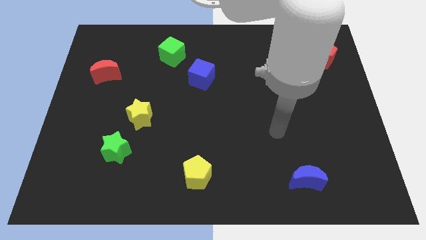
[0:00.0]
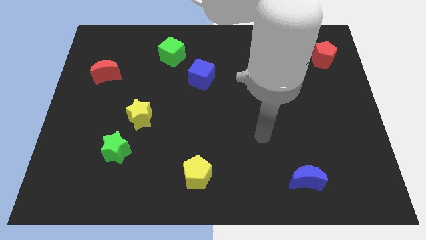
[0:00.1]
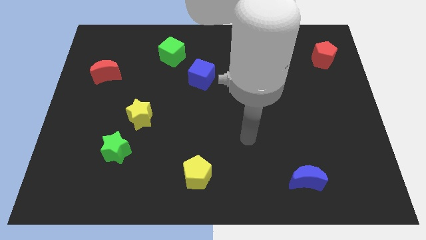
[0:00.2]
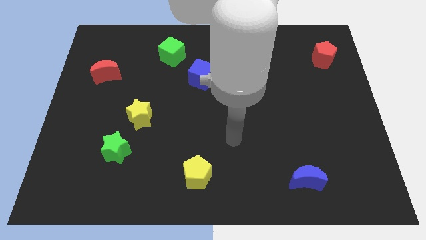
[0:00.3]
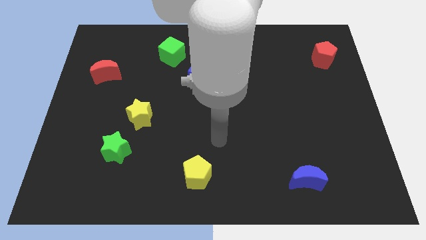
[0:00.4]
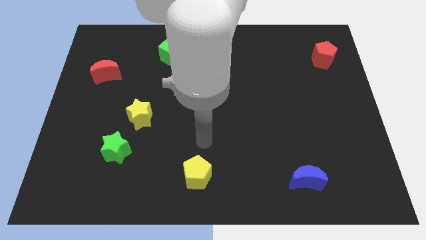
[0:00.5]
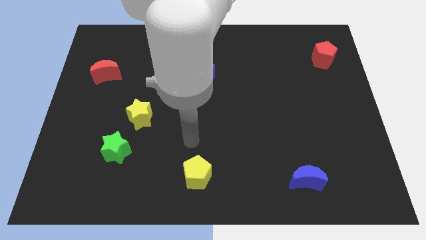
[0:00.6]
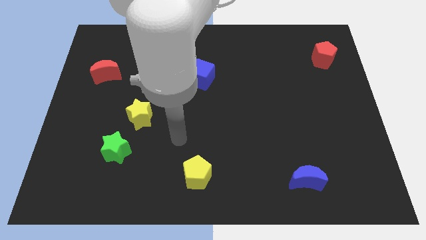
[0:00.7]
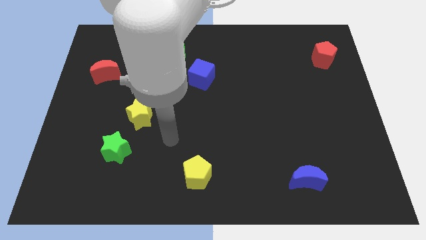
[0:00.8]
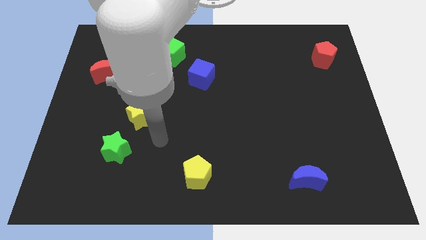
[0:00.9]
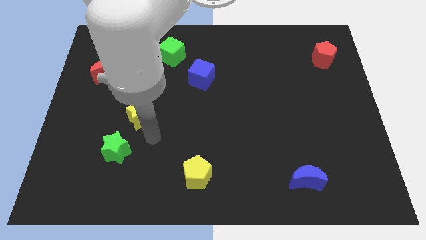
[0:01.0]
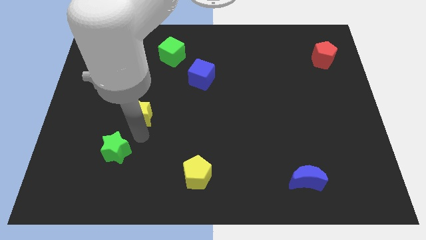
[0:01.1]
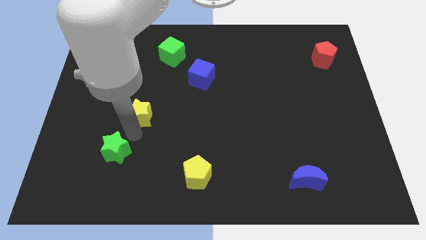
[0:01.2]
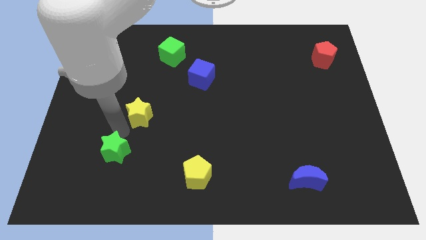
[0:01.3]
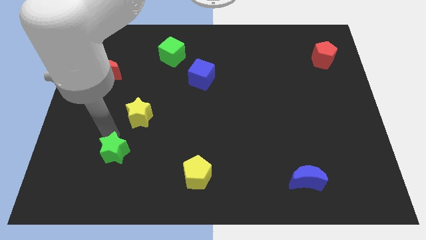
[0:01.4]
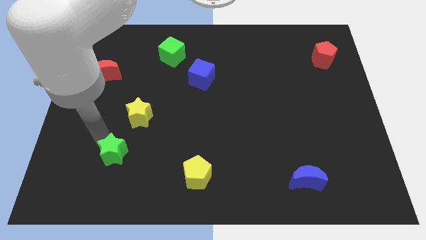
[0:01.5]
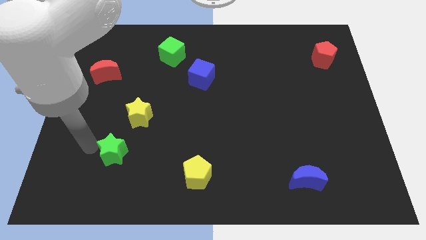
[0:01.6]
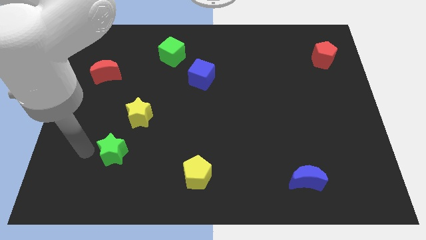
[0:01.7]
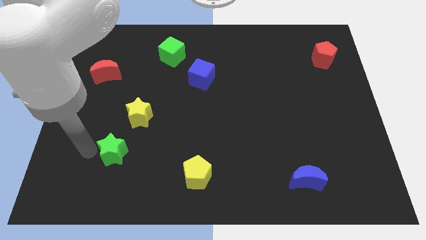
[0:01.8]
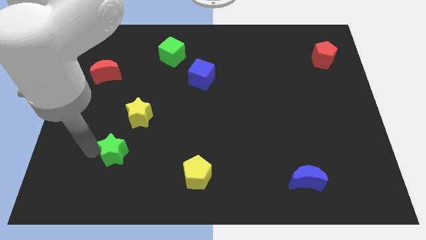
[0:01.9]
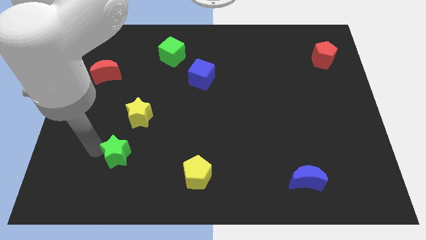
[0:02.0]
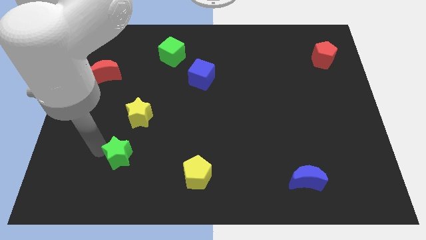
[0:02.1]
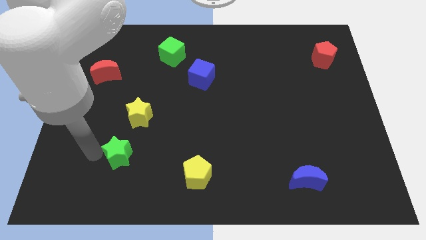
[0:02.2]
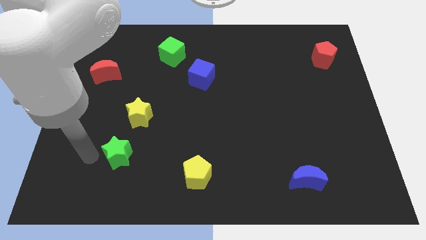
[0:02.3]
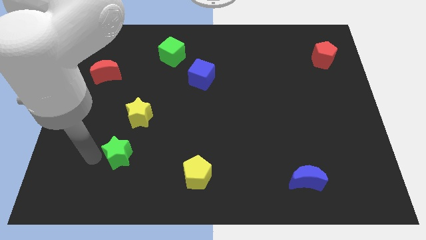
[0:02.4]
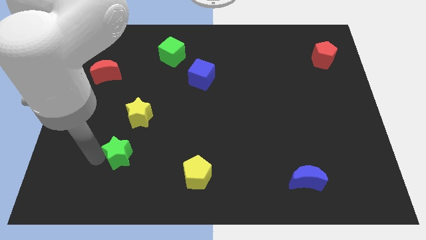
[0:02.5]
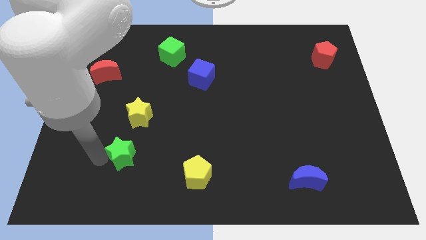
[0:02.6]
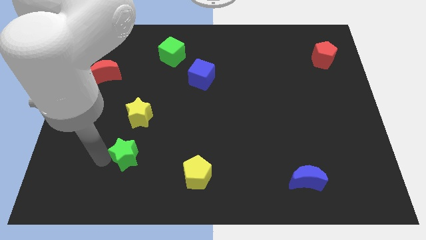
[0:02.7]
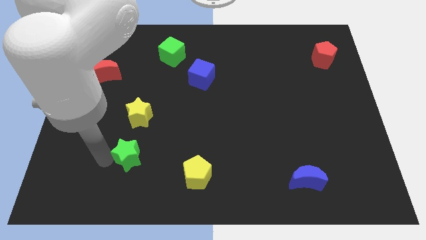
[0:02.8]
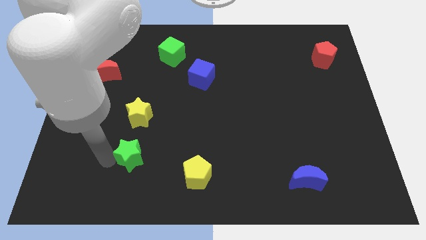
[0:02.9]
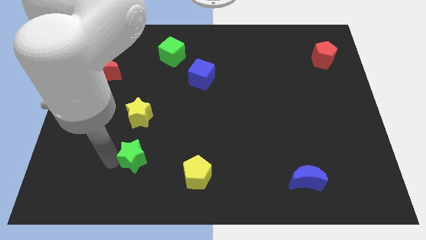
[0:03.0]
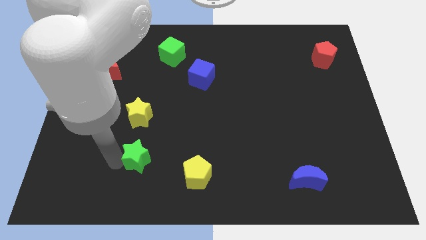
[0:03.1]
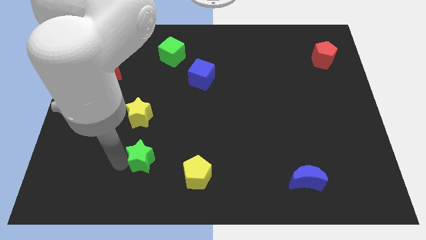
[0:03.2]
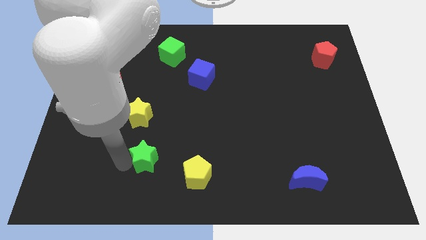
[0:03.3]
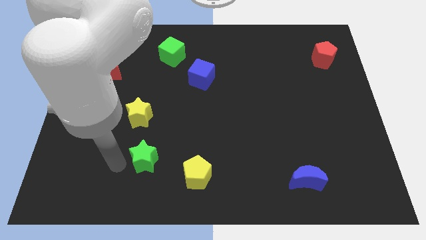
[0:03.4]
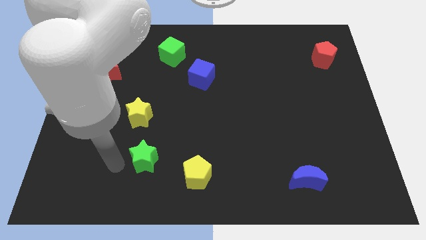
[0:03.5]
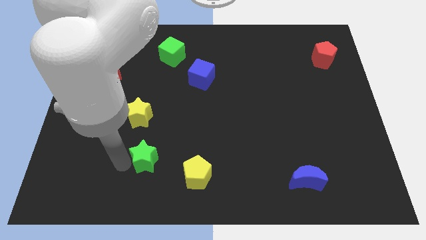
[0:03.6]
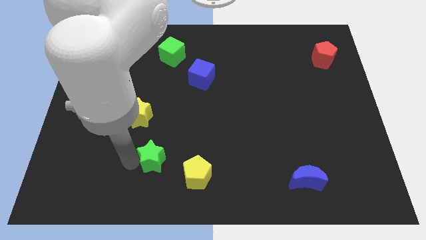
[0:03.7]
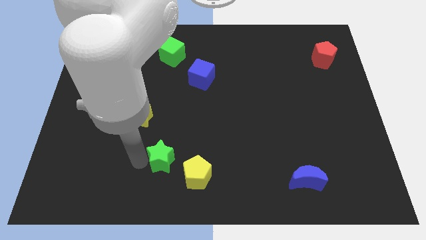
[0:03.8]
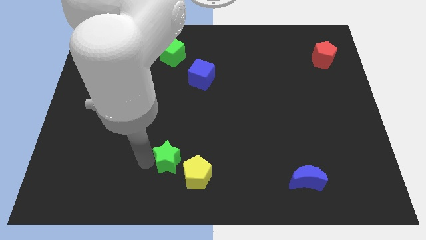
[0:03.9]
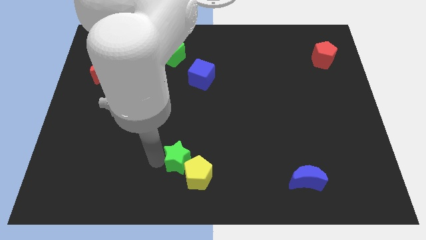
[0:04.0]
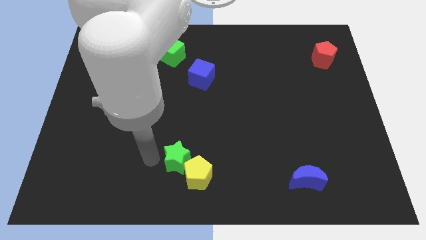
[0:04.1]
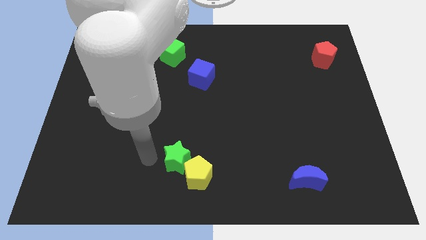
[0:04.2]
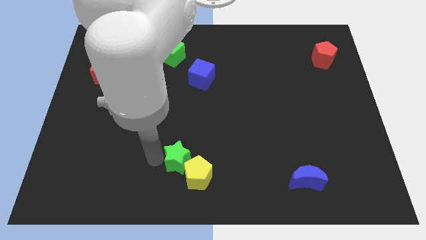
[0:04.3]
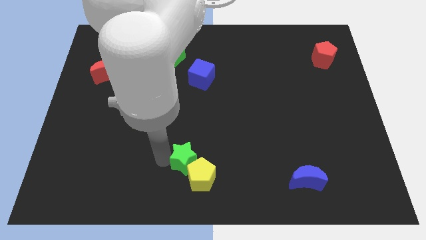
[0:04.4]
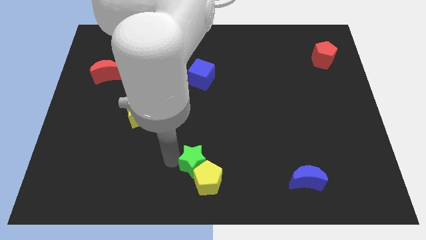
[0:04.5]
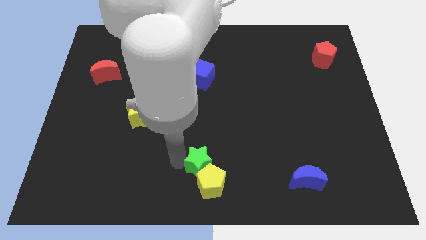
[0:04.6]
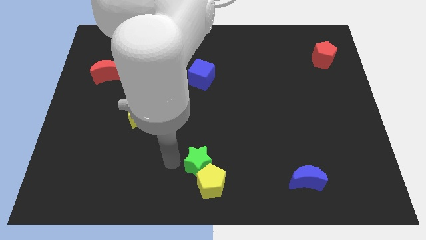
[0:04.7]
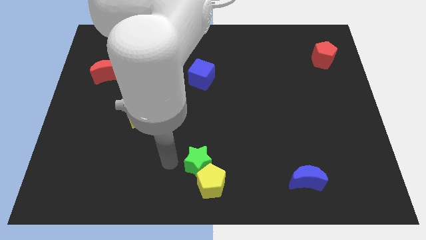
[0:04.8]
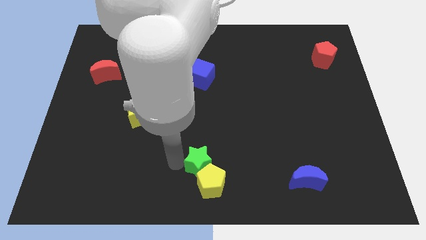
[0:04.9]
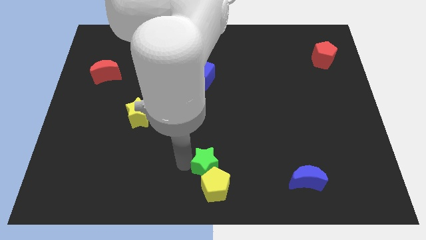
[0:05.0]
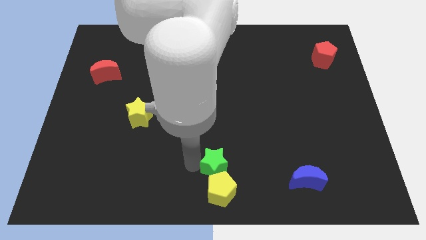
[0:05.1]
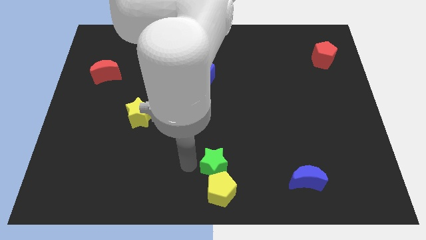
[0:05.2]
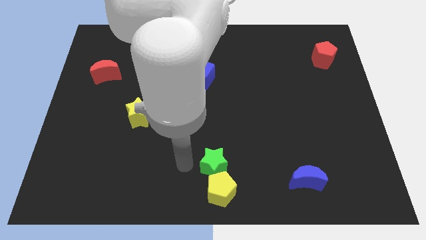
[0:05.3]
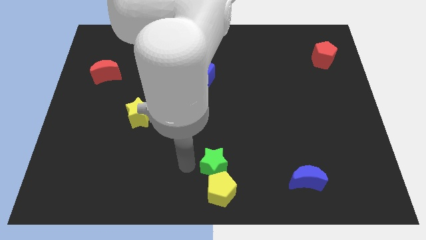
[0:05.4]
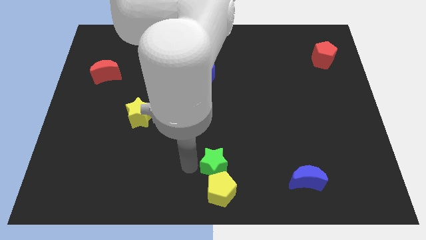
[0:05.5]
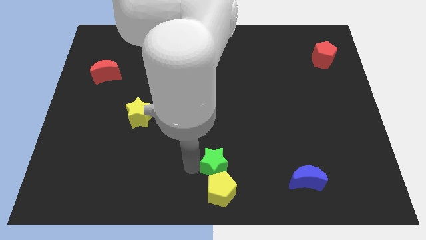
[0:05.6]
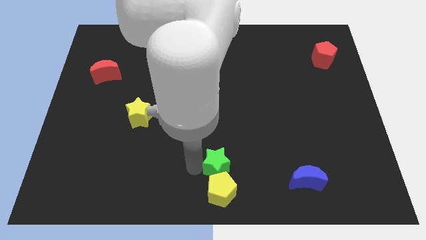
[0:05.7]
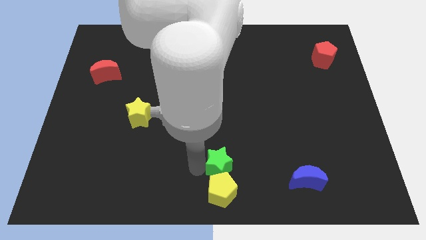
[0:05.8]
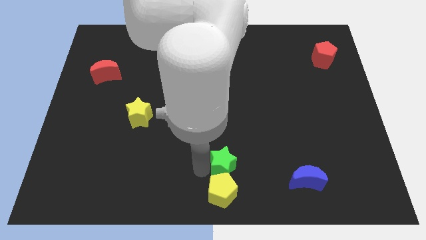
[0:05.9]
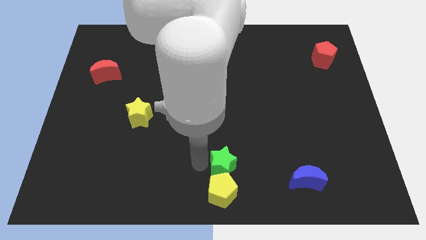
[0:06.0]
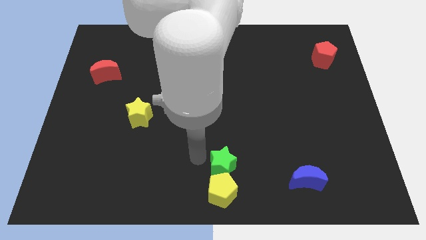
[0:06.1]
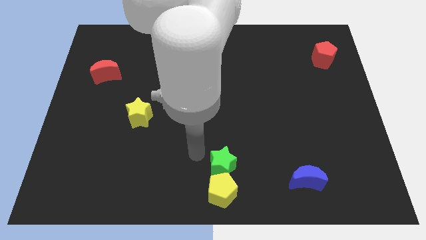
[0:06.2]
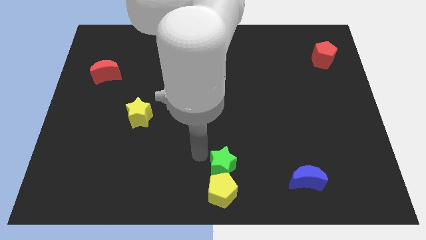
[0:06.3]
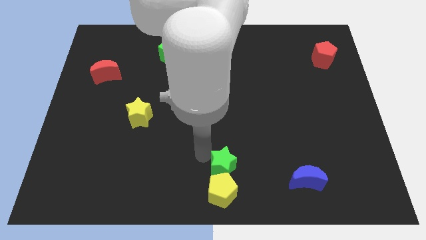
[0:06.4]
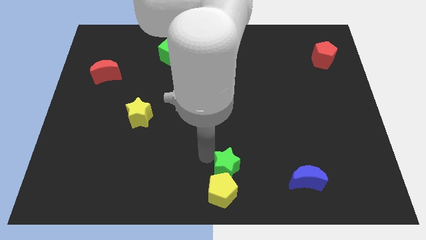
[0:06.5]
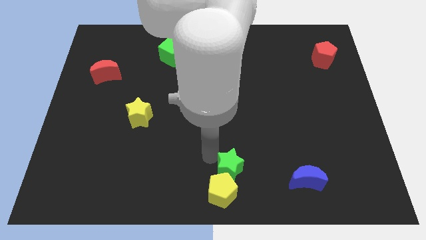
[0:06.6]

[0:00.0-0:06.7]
slide the green star left of the blue moon

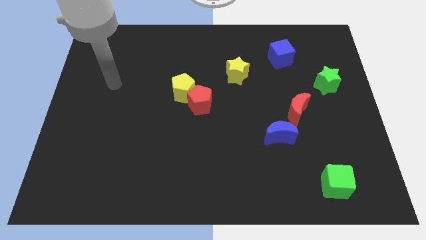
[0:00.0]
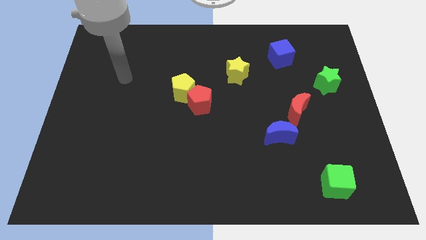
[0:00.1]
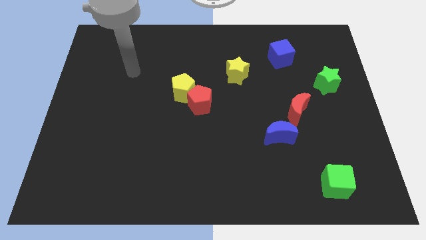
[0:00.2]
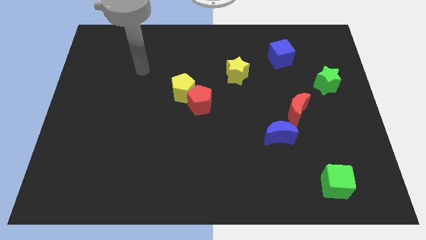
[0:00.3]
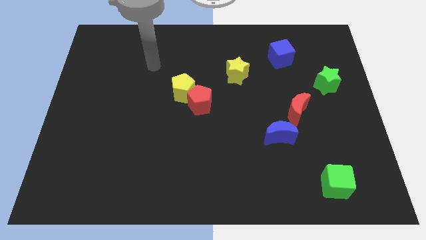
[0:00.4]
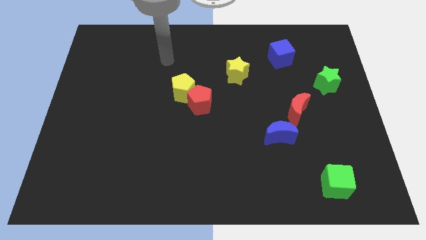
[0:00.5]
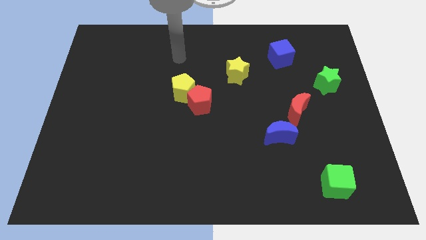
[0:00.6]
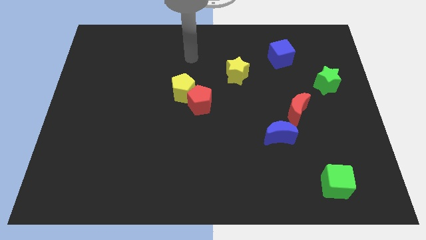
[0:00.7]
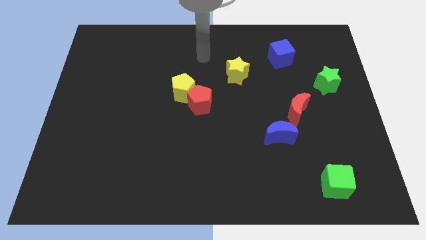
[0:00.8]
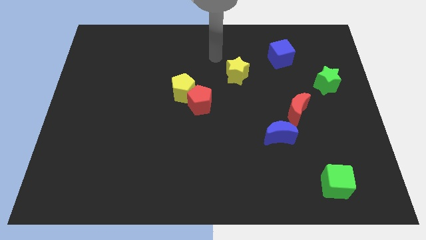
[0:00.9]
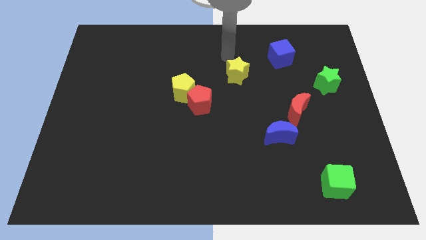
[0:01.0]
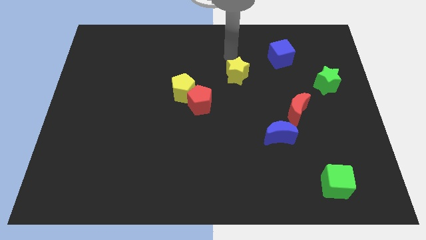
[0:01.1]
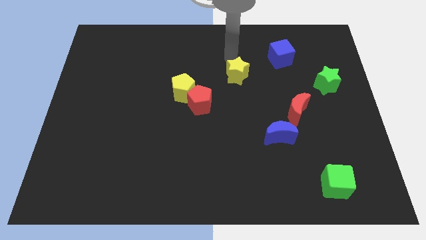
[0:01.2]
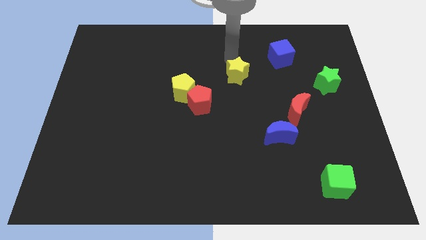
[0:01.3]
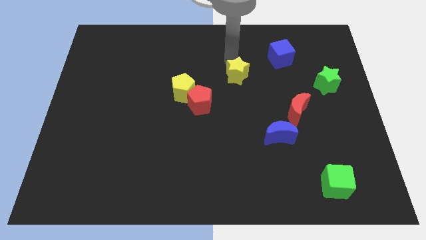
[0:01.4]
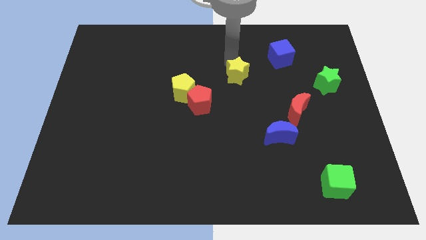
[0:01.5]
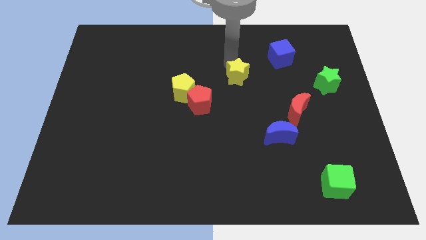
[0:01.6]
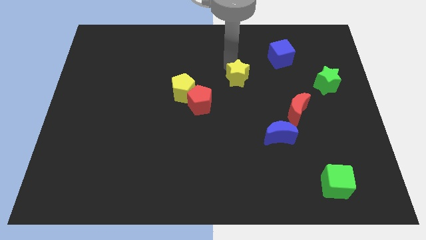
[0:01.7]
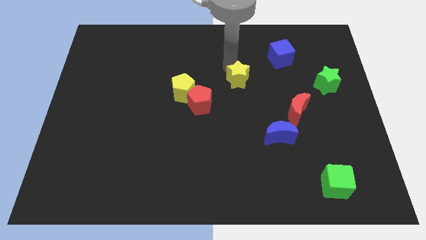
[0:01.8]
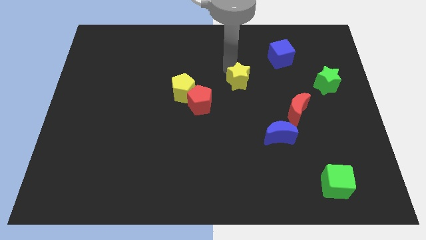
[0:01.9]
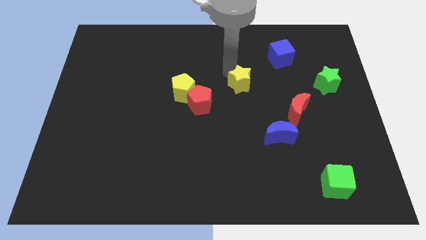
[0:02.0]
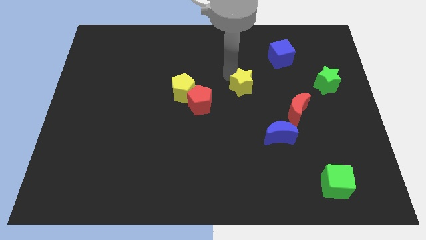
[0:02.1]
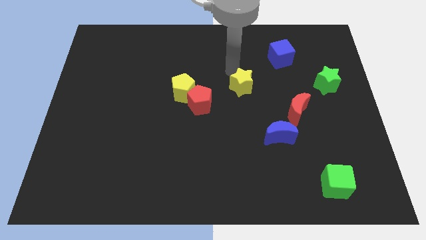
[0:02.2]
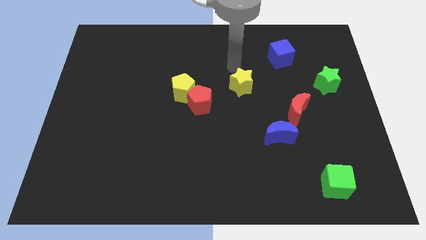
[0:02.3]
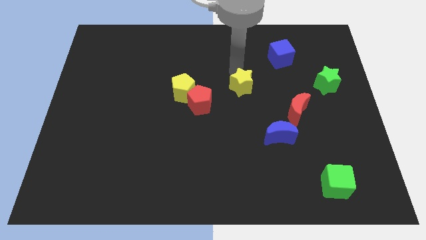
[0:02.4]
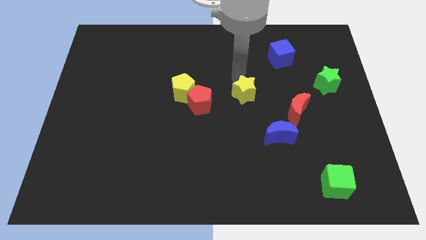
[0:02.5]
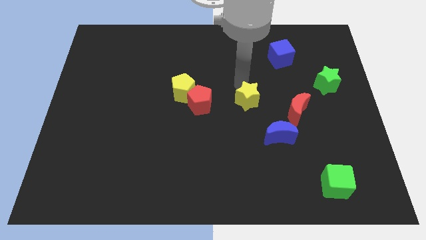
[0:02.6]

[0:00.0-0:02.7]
put the yellow star to the top left of the blue moon
